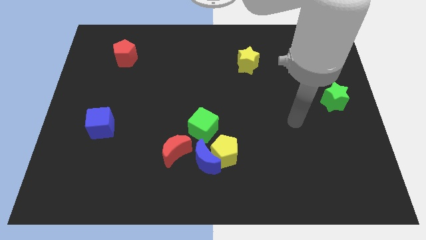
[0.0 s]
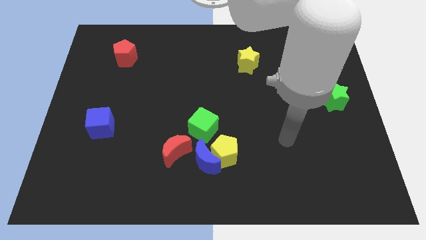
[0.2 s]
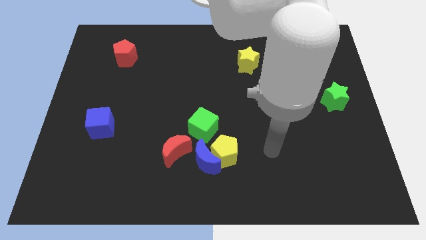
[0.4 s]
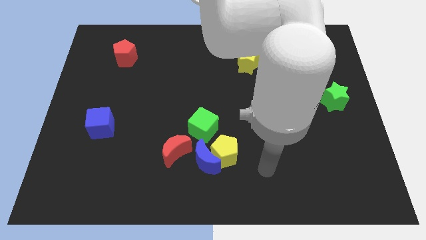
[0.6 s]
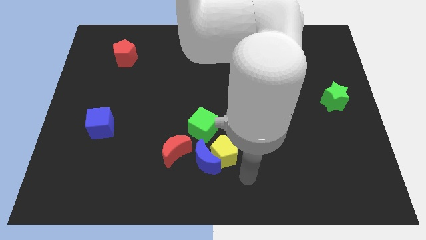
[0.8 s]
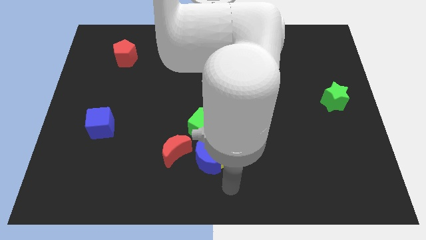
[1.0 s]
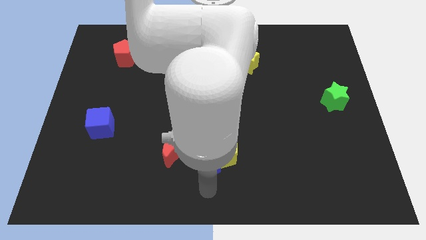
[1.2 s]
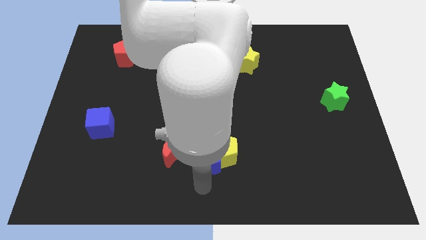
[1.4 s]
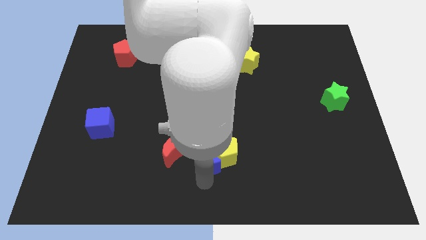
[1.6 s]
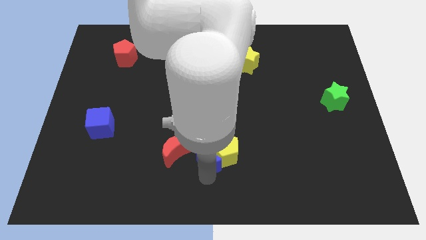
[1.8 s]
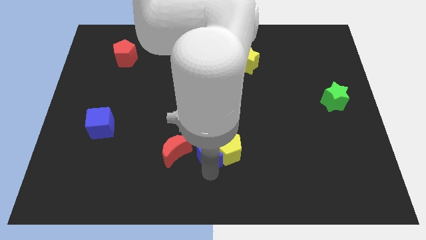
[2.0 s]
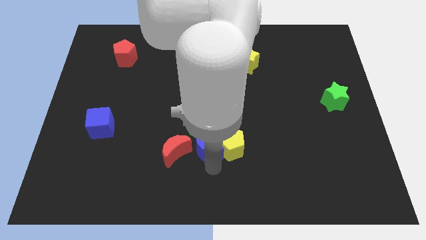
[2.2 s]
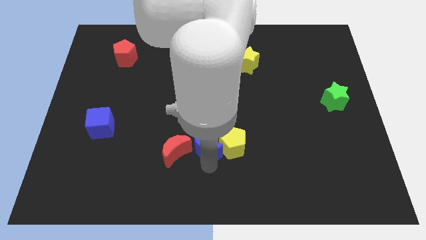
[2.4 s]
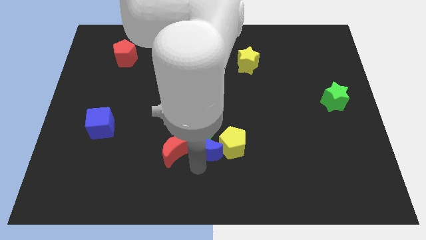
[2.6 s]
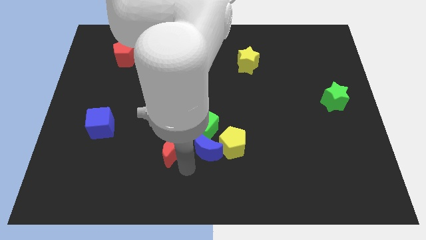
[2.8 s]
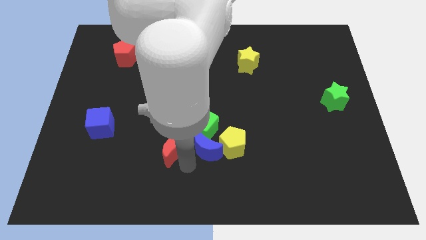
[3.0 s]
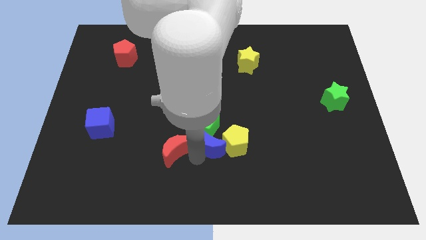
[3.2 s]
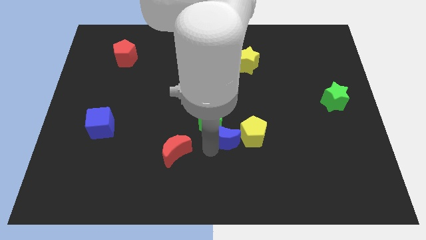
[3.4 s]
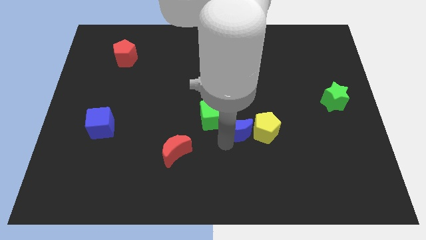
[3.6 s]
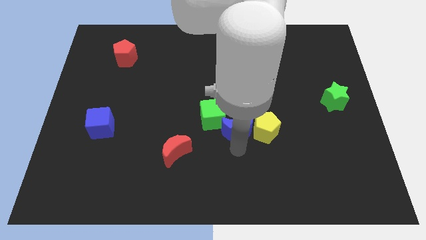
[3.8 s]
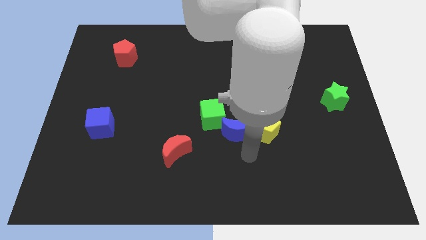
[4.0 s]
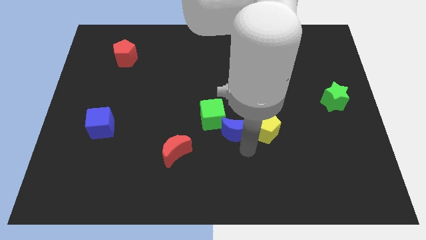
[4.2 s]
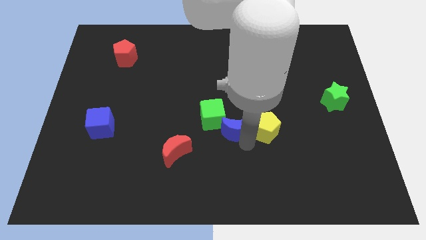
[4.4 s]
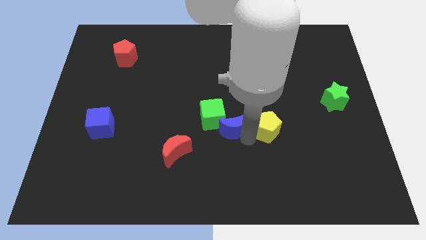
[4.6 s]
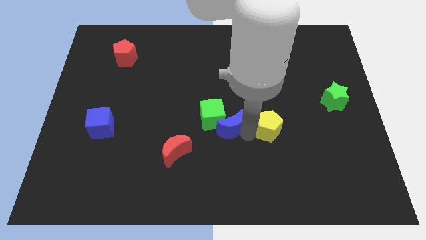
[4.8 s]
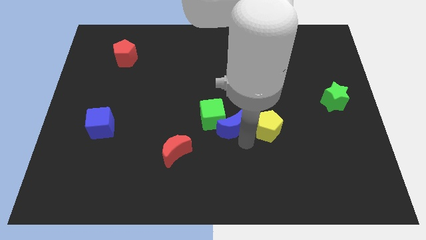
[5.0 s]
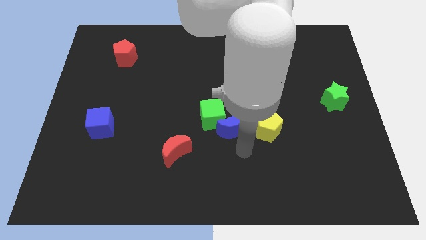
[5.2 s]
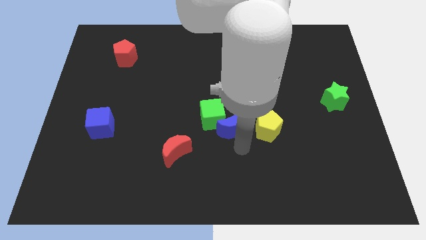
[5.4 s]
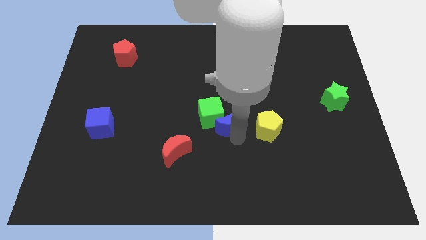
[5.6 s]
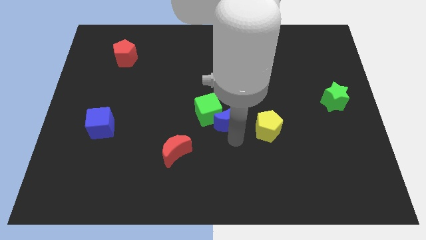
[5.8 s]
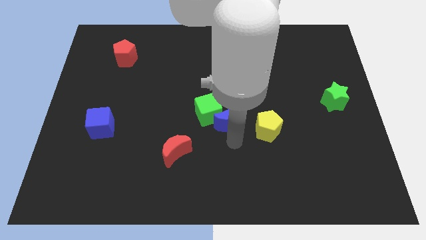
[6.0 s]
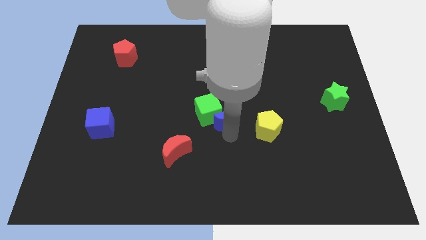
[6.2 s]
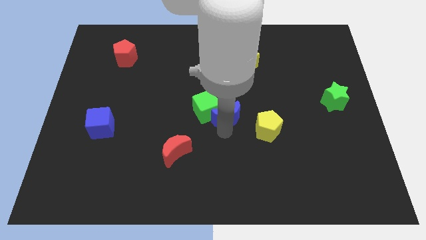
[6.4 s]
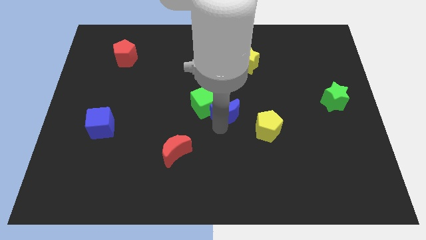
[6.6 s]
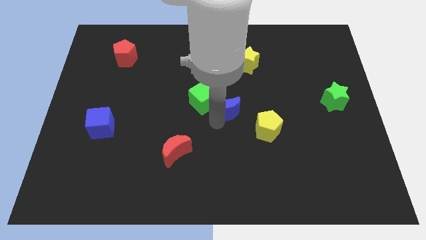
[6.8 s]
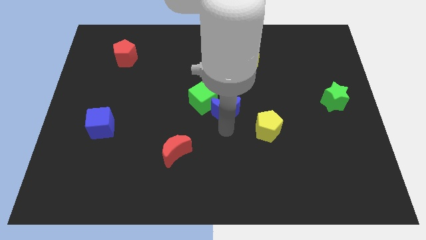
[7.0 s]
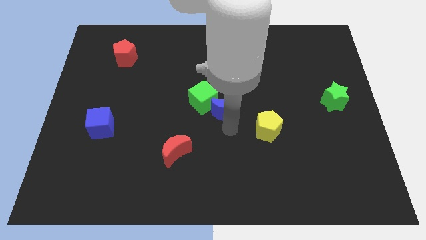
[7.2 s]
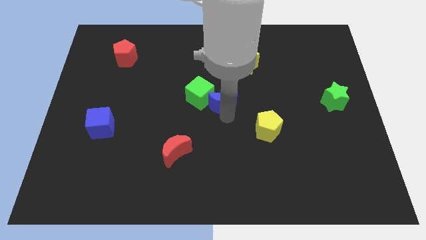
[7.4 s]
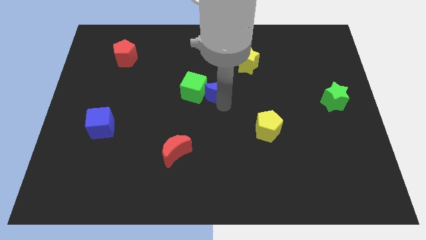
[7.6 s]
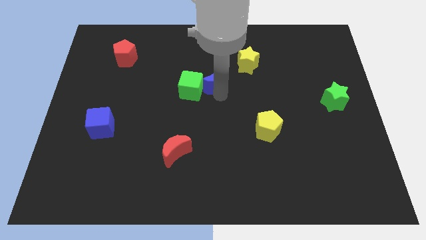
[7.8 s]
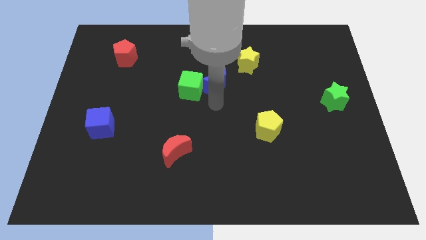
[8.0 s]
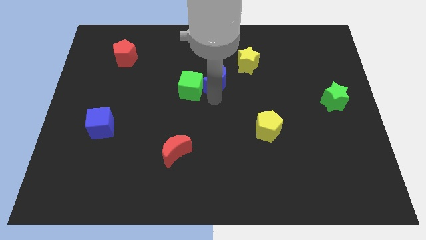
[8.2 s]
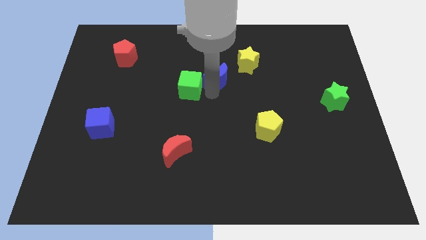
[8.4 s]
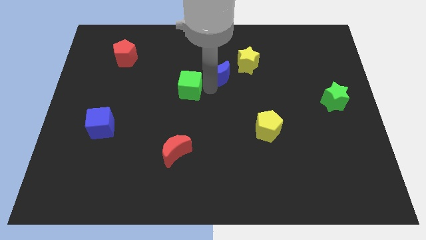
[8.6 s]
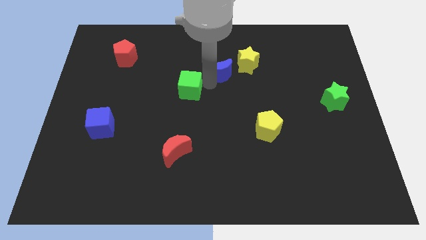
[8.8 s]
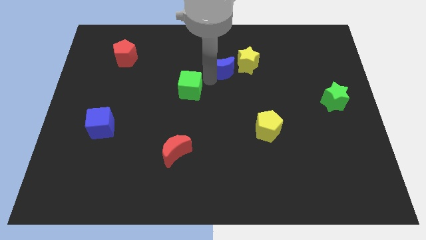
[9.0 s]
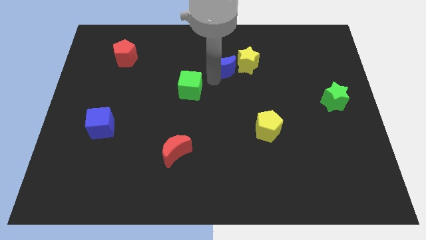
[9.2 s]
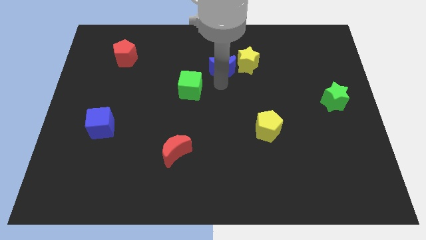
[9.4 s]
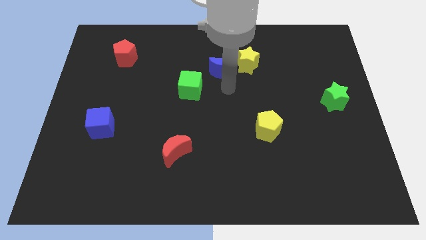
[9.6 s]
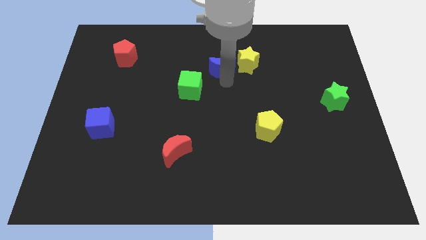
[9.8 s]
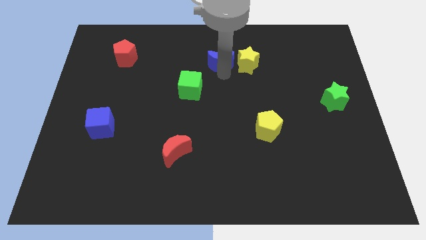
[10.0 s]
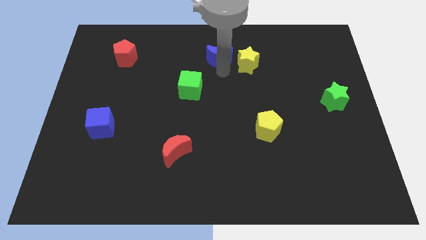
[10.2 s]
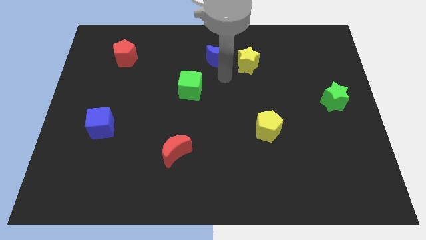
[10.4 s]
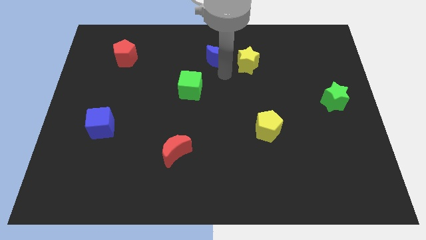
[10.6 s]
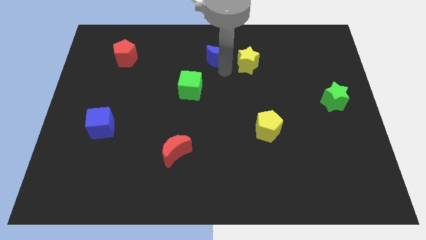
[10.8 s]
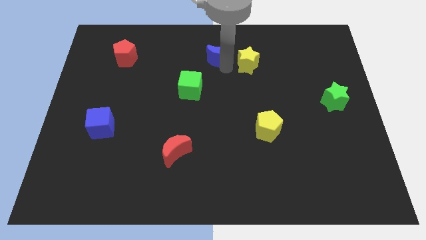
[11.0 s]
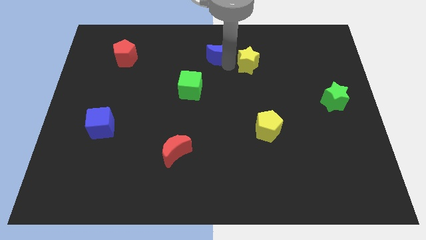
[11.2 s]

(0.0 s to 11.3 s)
put the blue moon to the top

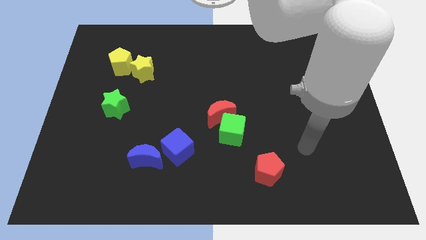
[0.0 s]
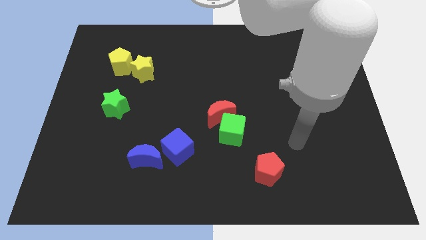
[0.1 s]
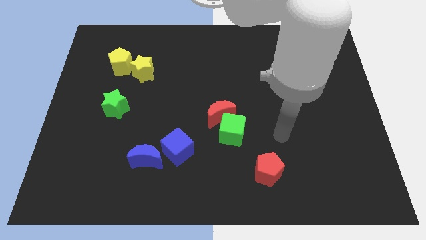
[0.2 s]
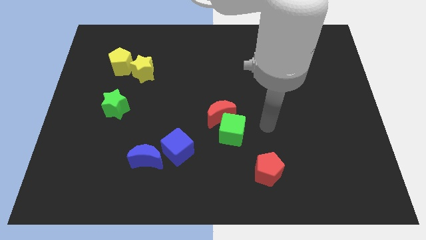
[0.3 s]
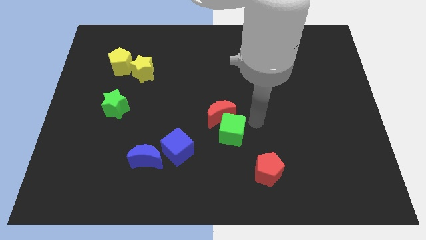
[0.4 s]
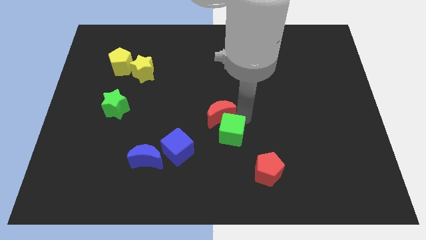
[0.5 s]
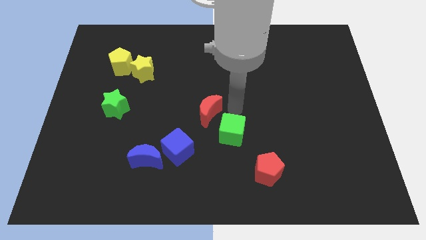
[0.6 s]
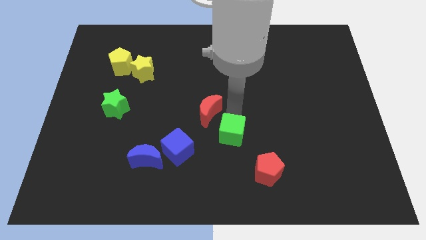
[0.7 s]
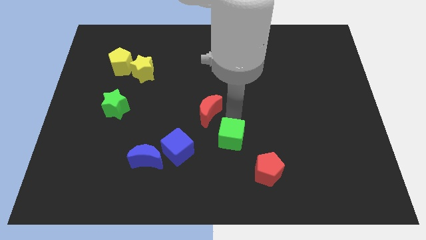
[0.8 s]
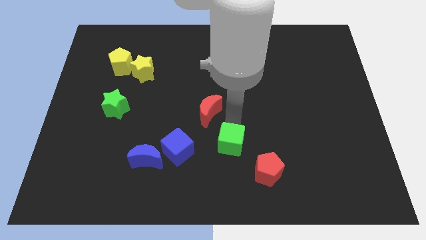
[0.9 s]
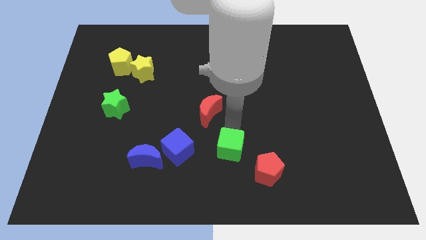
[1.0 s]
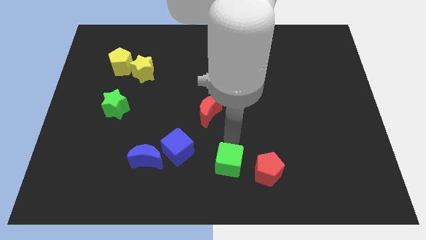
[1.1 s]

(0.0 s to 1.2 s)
push the green cube to the bottom
